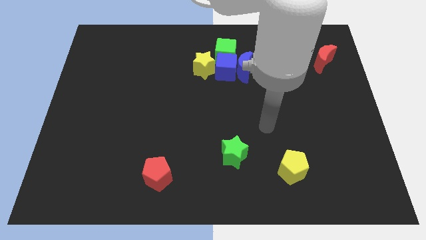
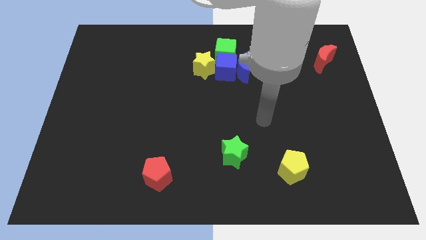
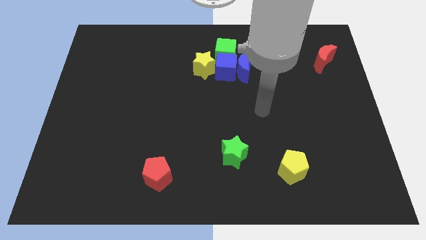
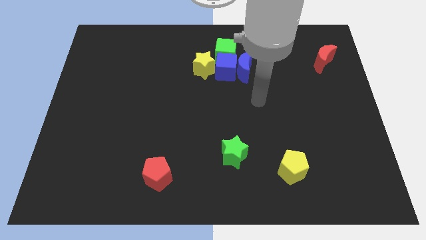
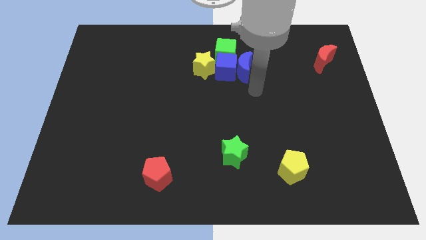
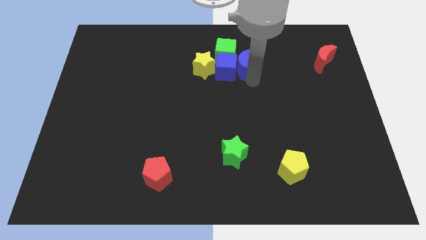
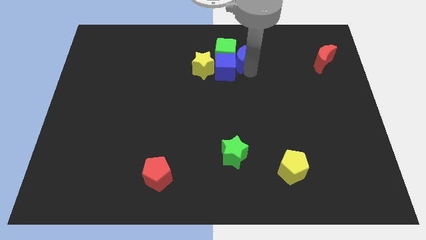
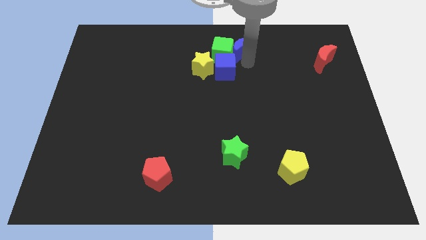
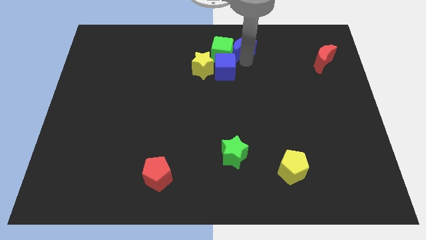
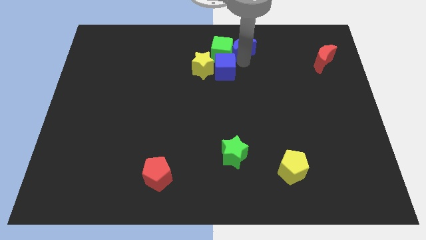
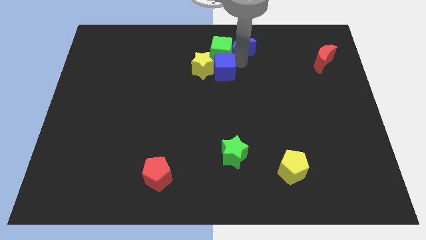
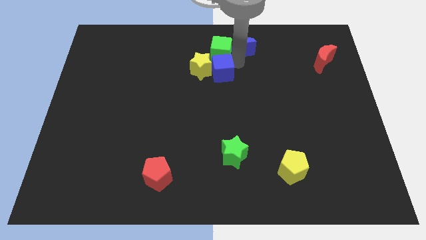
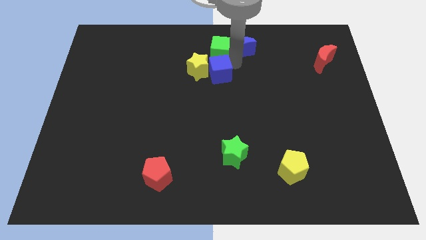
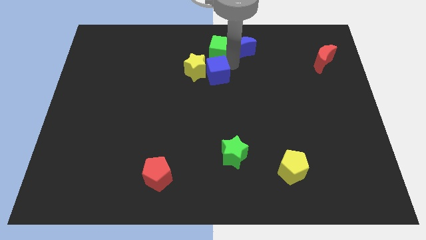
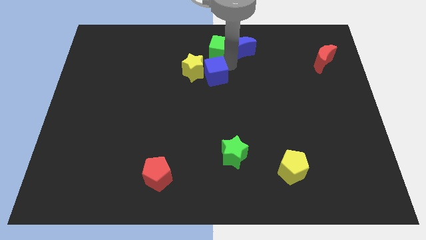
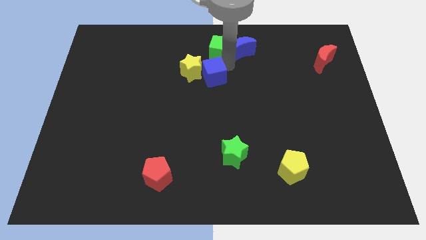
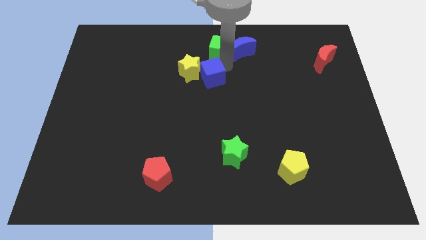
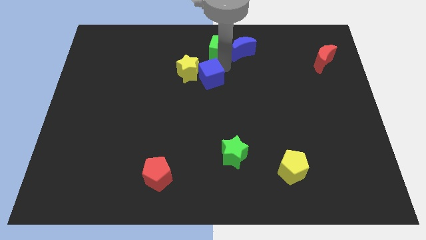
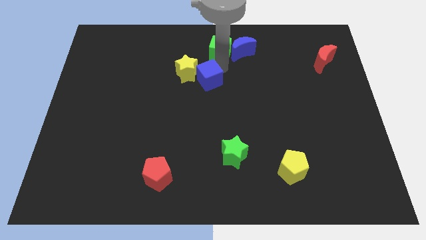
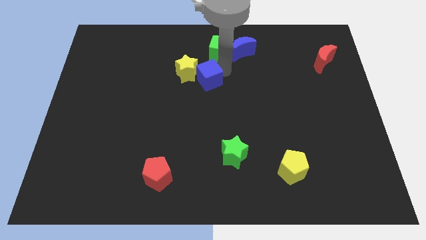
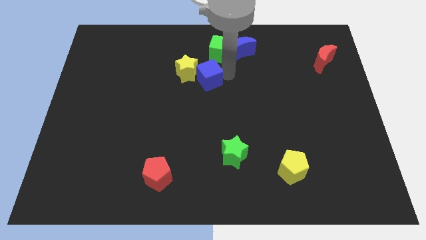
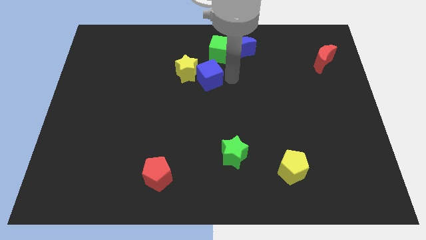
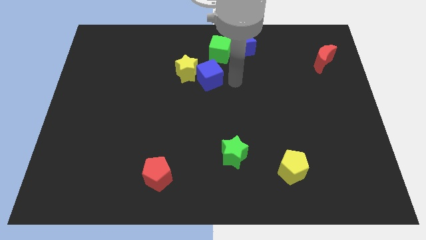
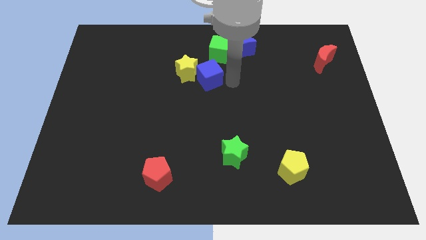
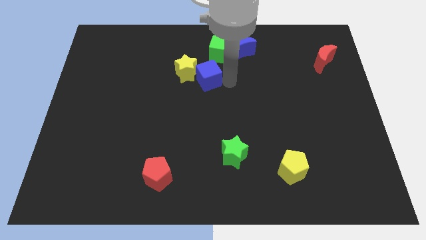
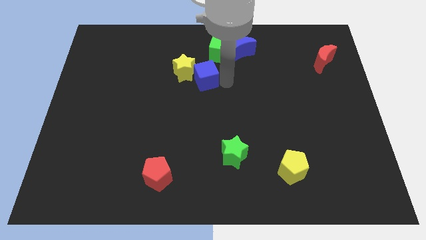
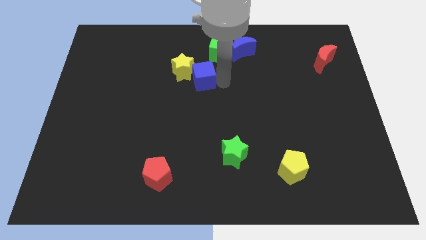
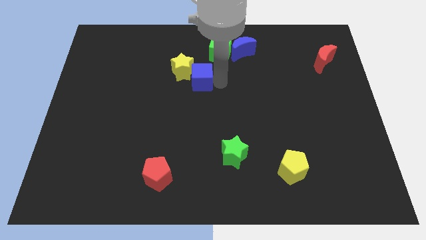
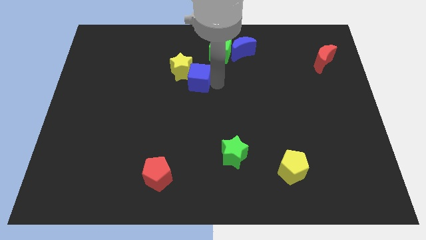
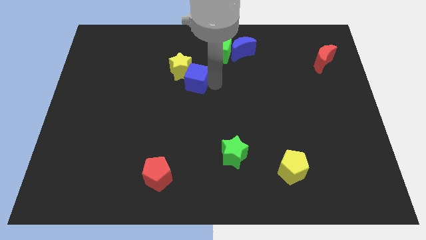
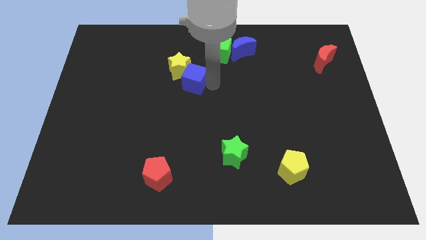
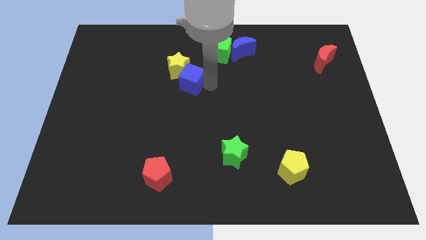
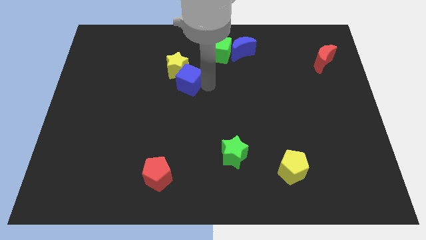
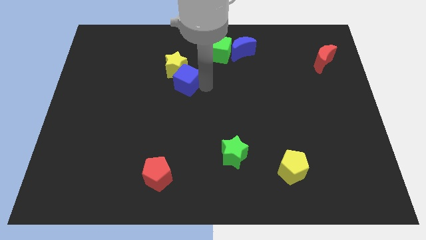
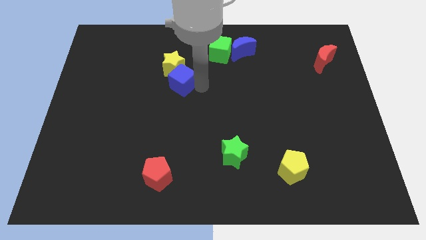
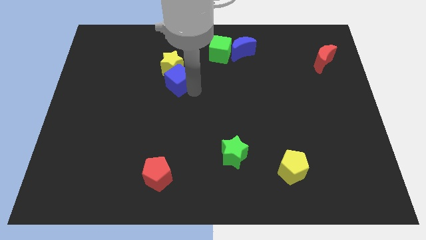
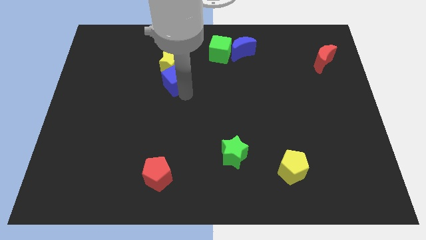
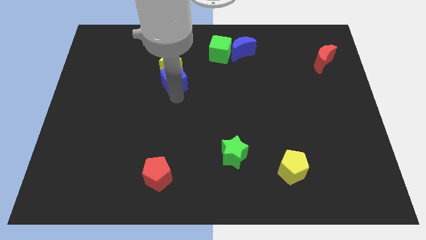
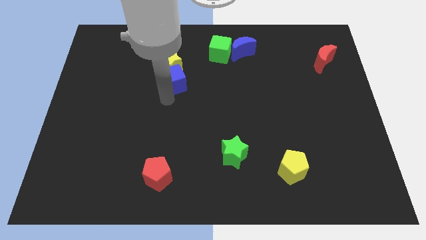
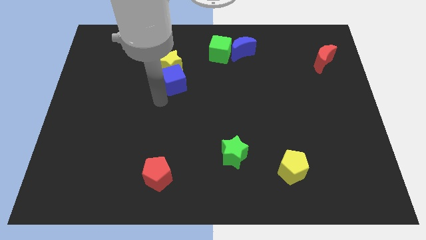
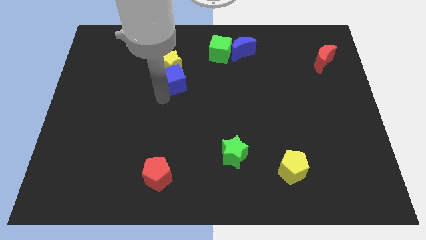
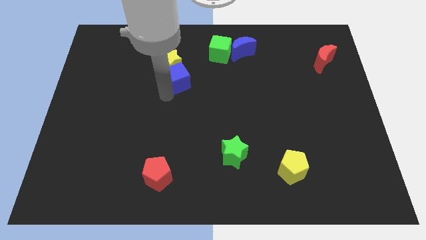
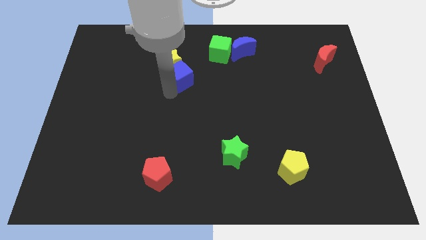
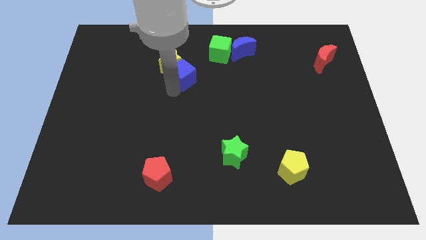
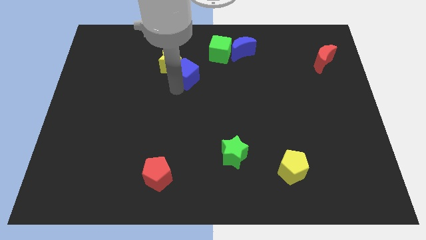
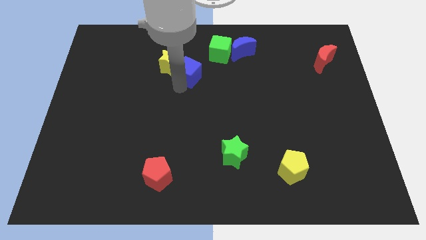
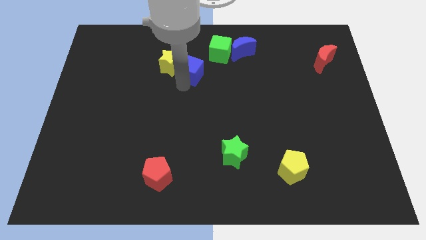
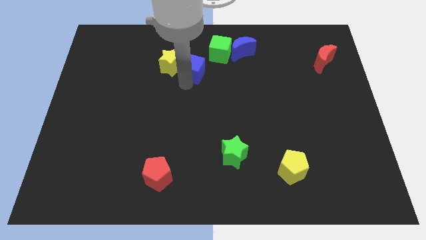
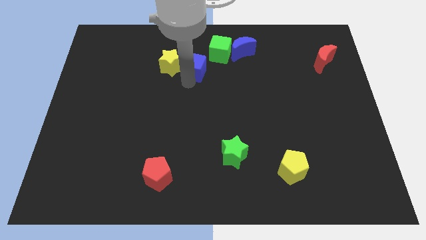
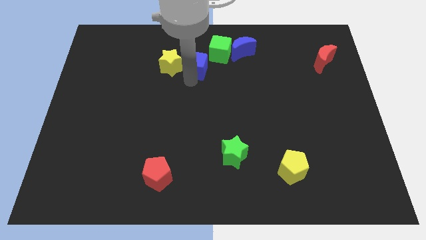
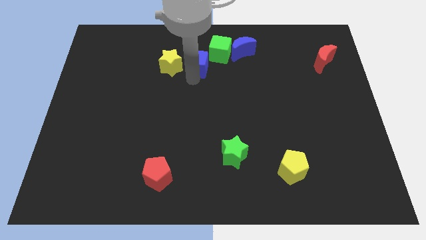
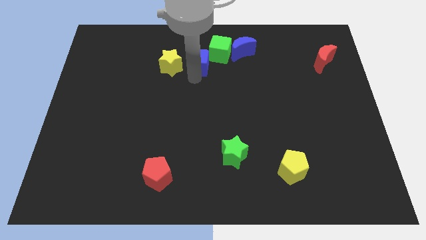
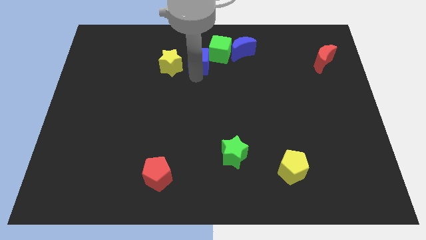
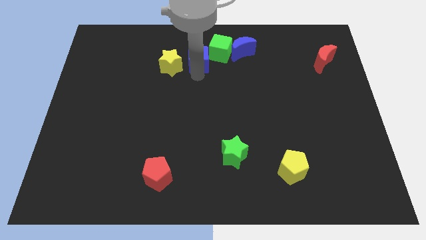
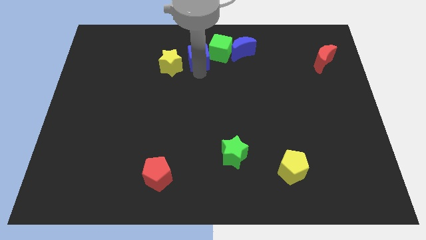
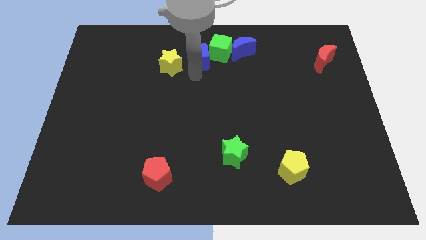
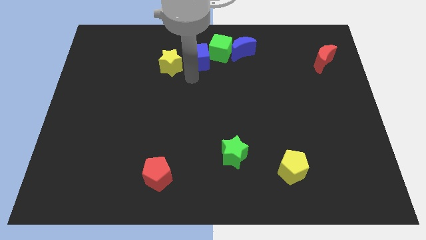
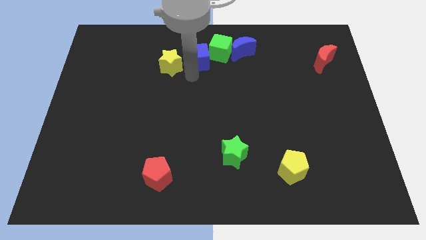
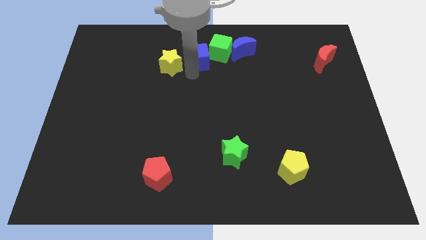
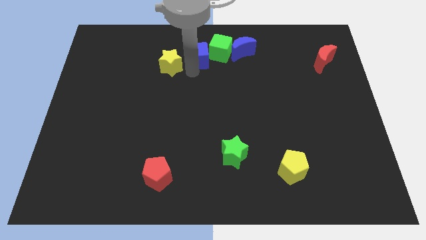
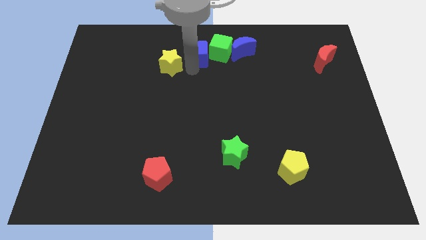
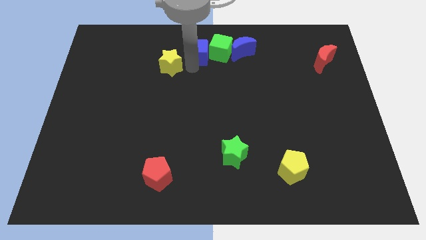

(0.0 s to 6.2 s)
move the blue cube to the top
